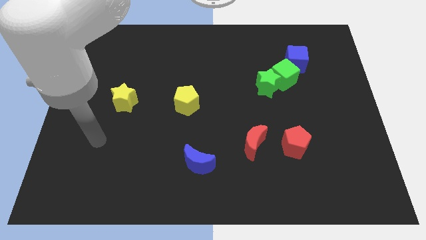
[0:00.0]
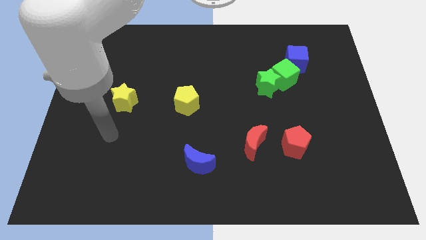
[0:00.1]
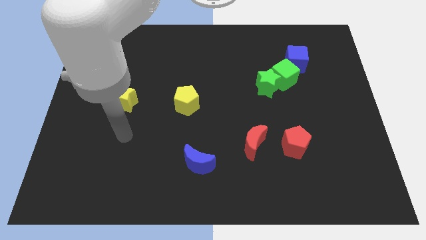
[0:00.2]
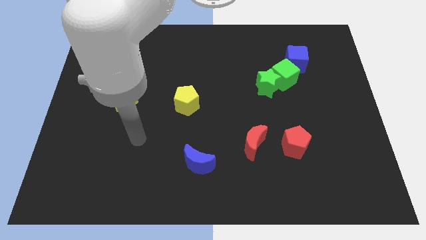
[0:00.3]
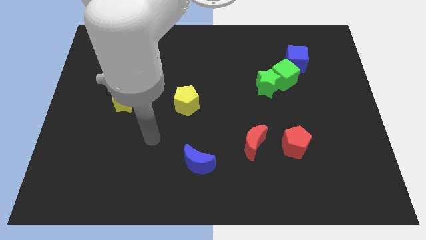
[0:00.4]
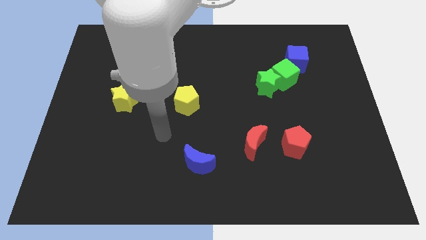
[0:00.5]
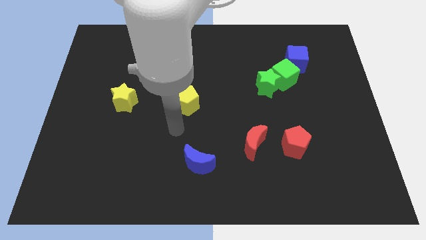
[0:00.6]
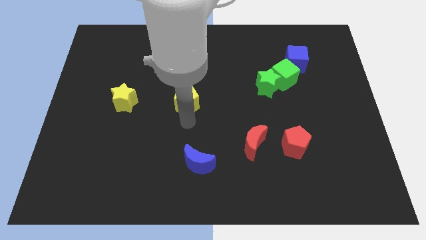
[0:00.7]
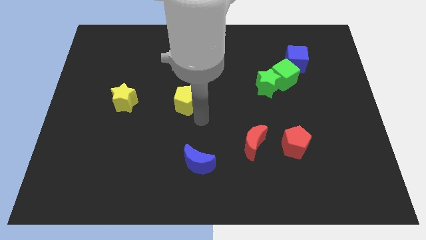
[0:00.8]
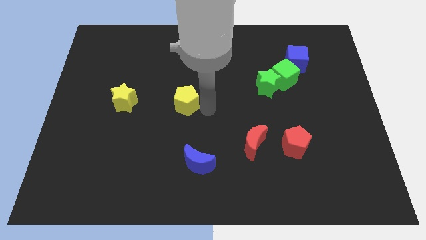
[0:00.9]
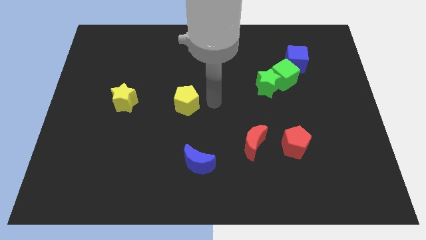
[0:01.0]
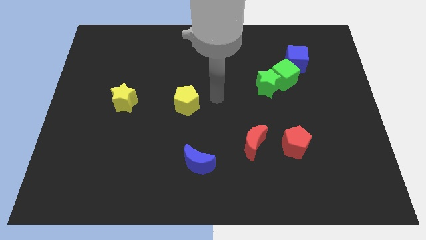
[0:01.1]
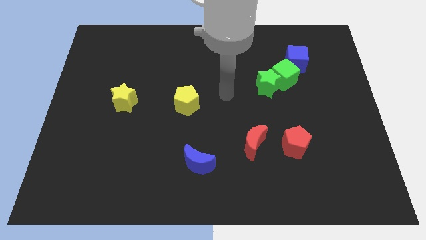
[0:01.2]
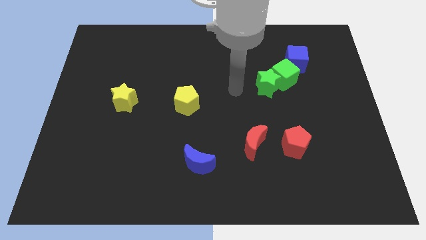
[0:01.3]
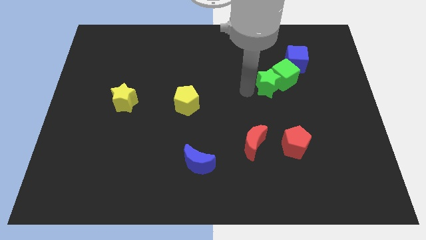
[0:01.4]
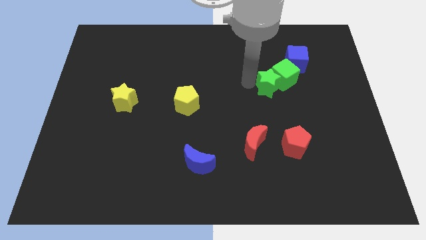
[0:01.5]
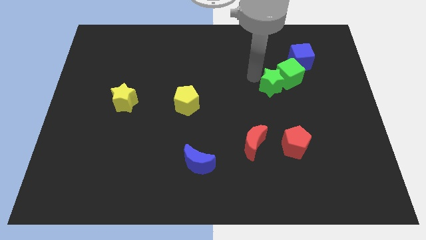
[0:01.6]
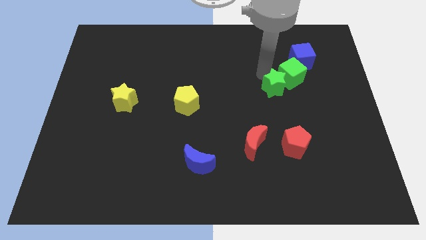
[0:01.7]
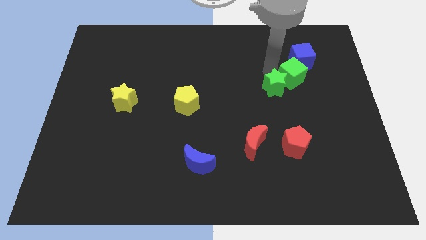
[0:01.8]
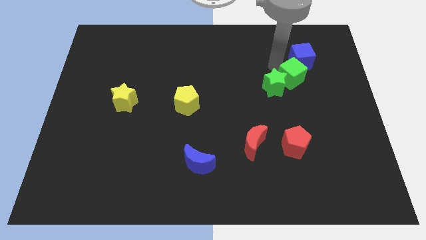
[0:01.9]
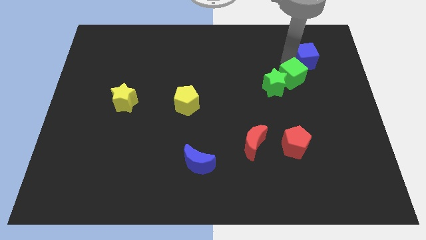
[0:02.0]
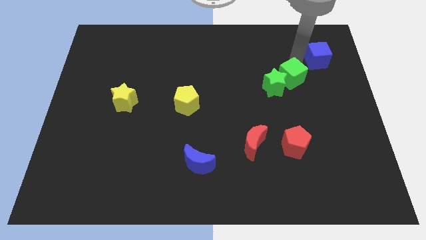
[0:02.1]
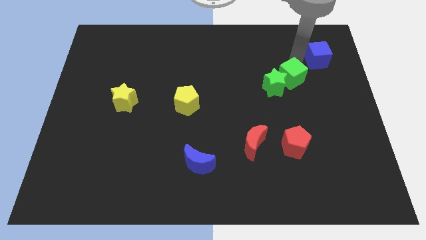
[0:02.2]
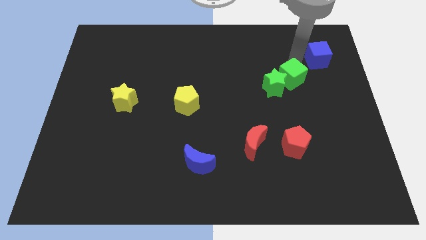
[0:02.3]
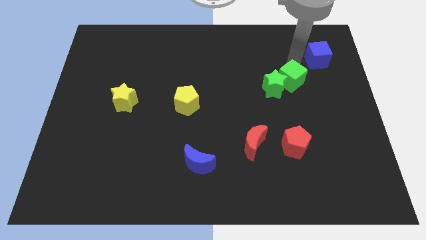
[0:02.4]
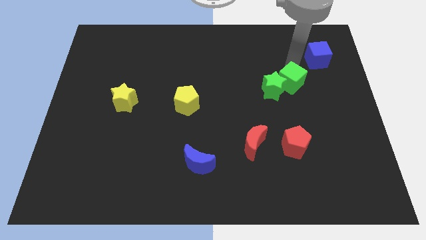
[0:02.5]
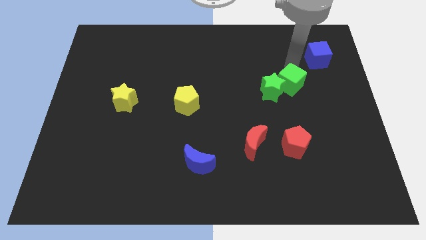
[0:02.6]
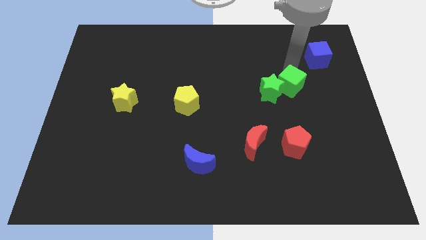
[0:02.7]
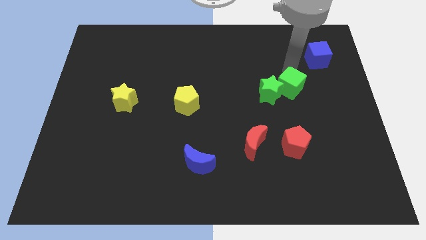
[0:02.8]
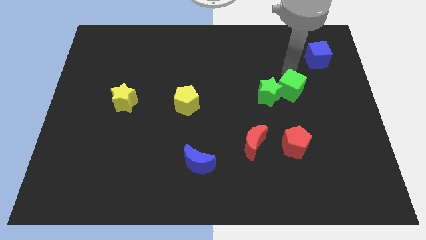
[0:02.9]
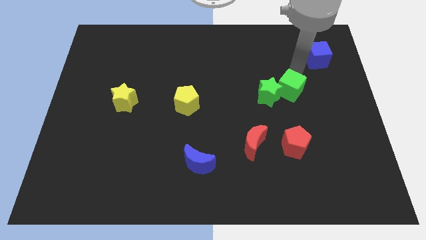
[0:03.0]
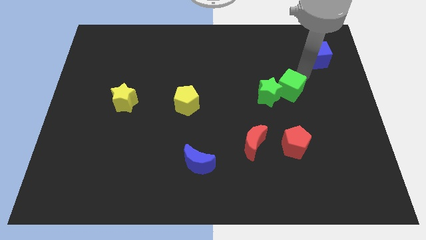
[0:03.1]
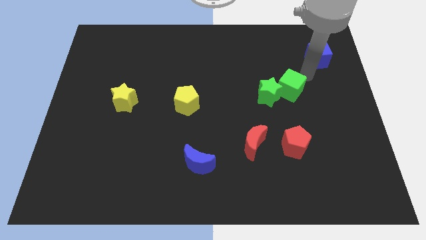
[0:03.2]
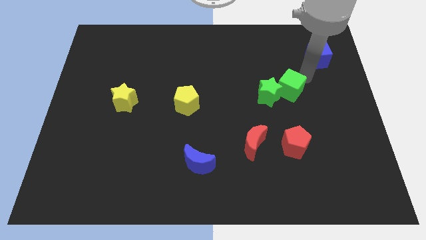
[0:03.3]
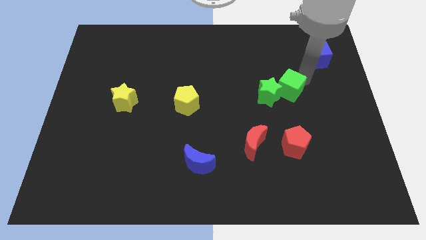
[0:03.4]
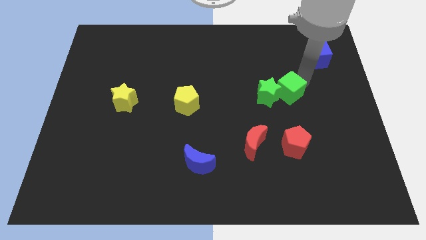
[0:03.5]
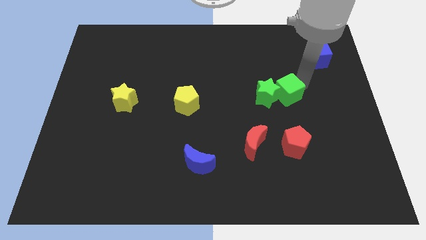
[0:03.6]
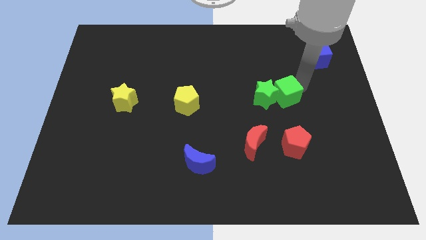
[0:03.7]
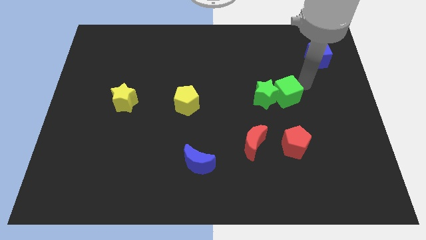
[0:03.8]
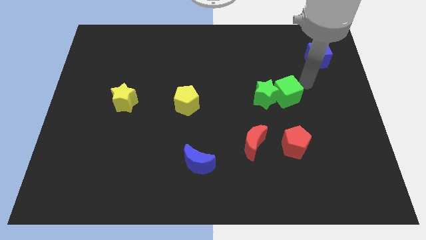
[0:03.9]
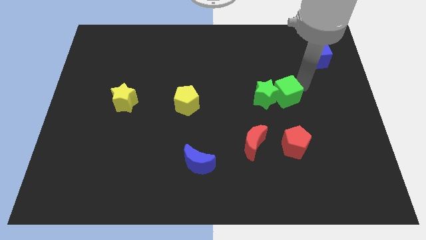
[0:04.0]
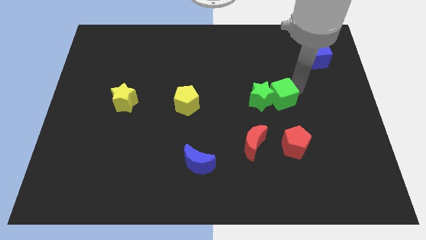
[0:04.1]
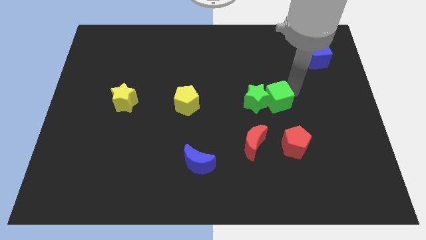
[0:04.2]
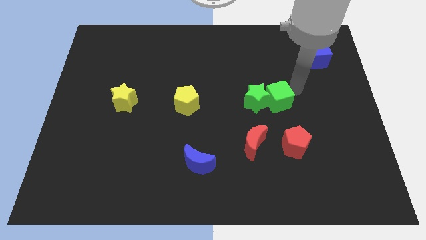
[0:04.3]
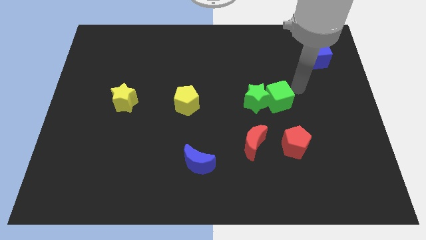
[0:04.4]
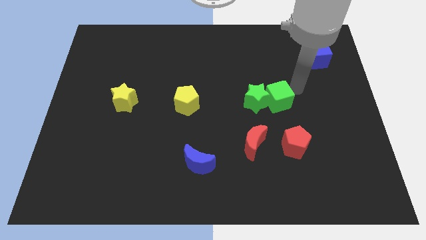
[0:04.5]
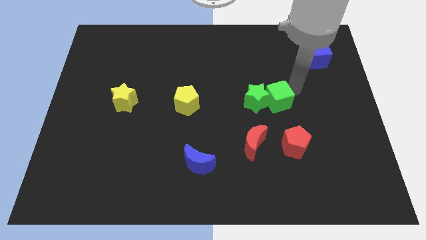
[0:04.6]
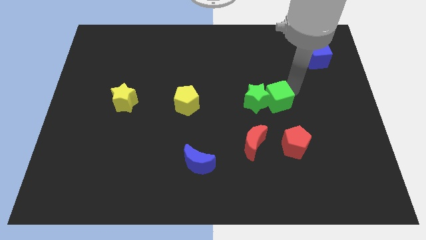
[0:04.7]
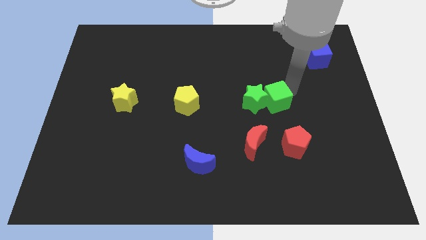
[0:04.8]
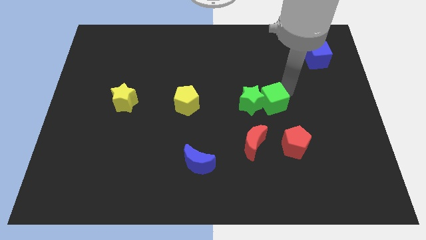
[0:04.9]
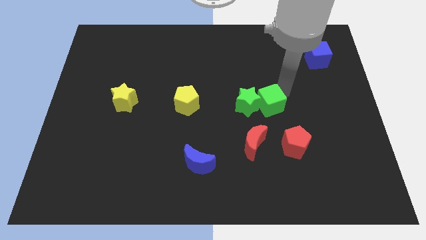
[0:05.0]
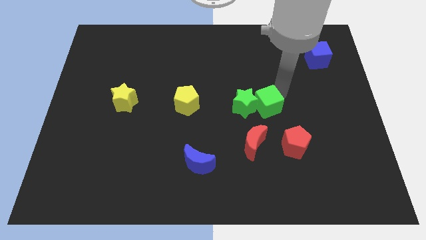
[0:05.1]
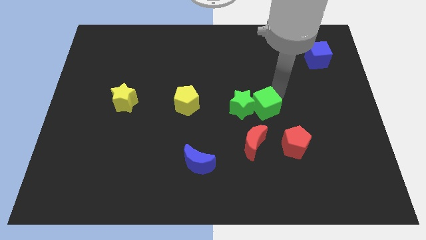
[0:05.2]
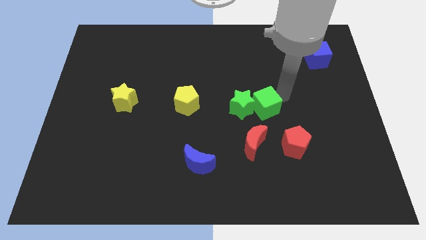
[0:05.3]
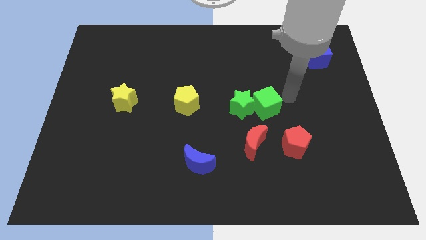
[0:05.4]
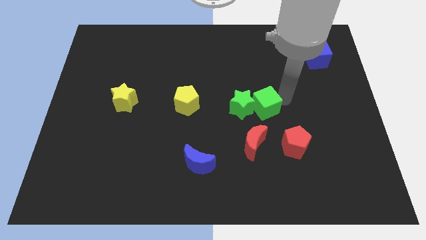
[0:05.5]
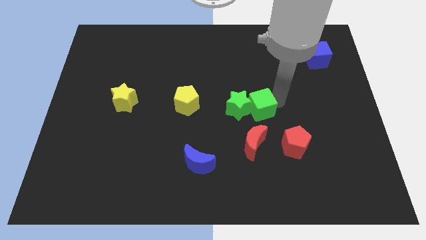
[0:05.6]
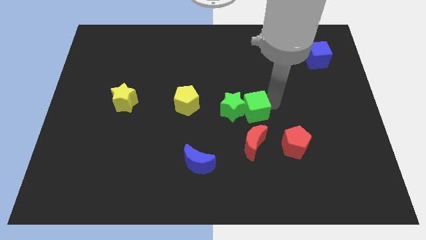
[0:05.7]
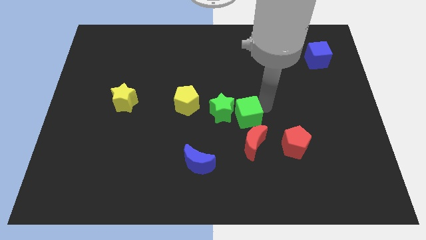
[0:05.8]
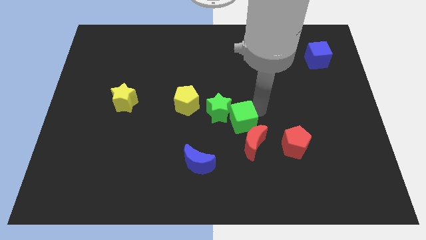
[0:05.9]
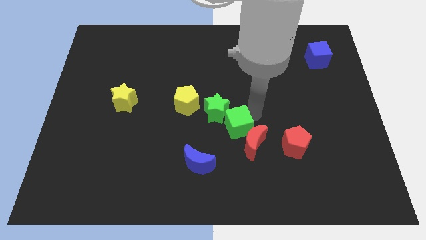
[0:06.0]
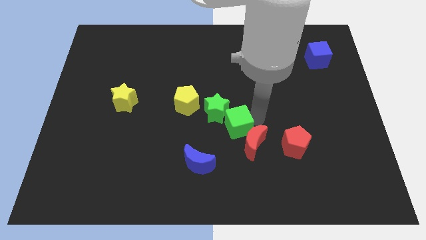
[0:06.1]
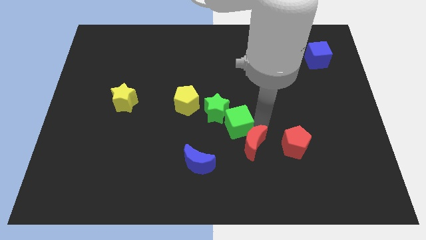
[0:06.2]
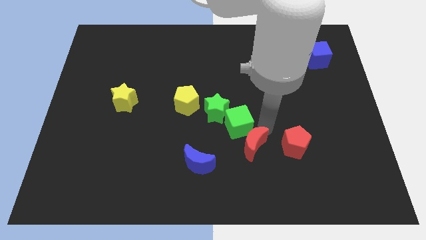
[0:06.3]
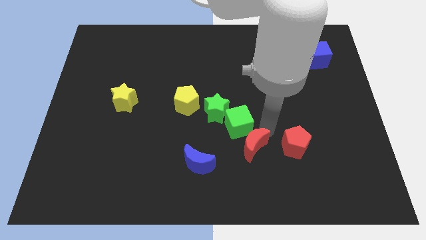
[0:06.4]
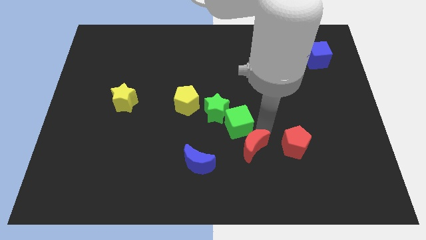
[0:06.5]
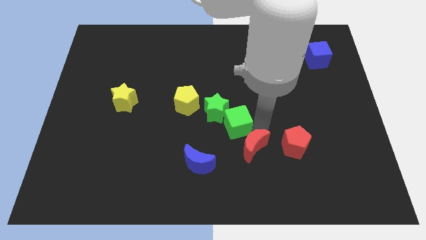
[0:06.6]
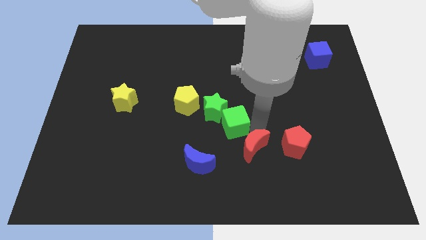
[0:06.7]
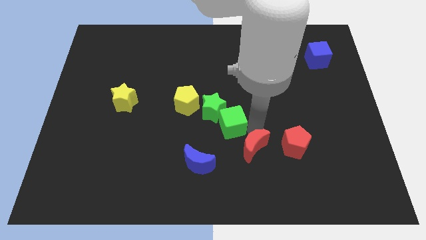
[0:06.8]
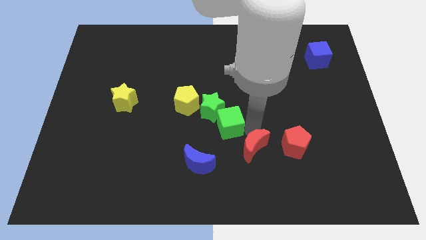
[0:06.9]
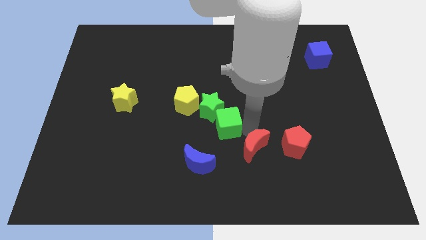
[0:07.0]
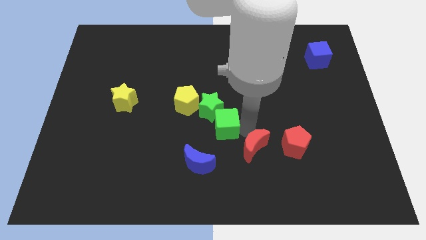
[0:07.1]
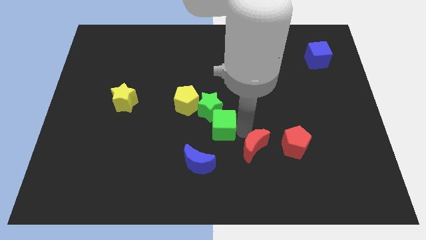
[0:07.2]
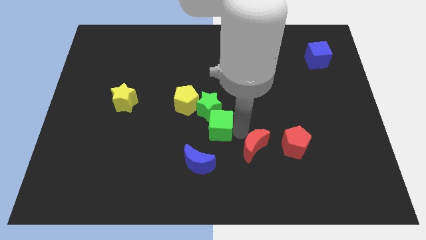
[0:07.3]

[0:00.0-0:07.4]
move the green cube to the top side of the blue moon

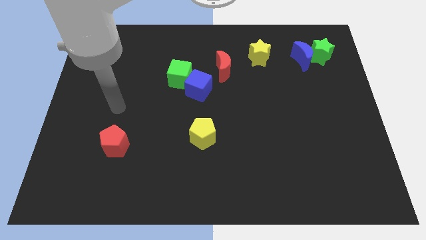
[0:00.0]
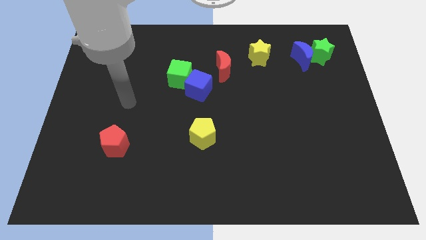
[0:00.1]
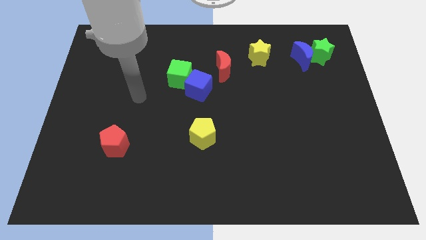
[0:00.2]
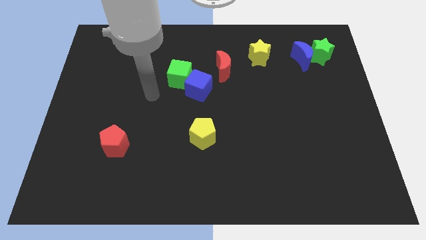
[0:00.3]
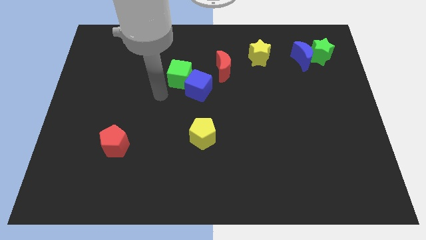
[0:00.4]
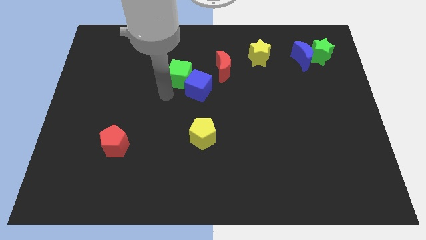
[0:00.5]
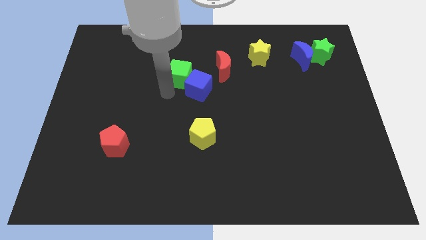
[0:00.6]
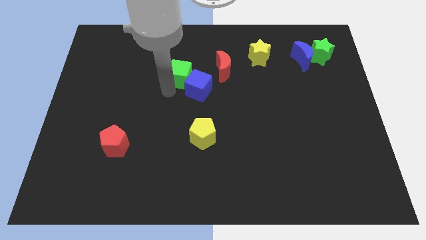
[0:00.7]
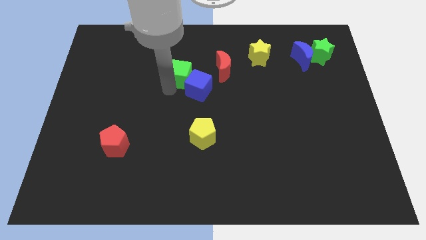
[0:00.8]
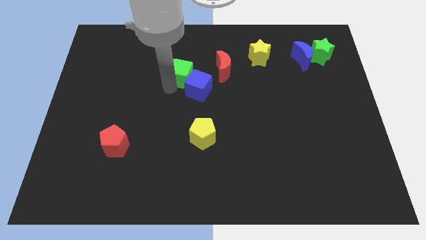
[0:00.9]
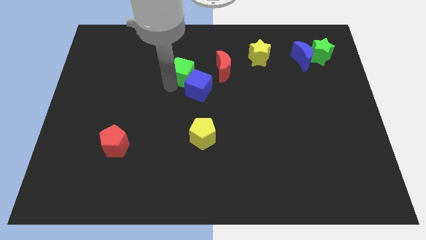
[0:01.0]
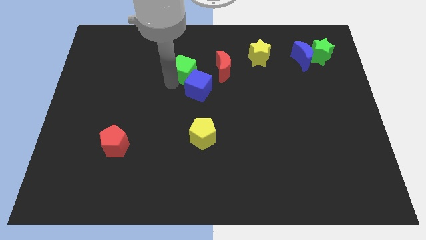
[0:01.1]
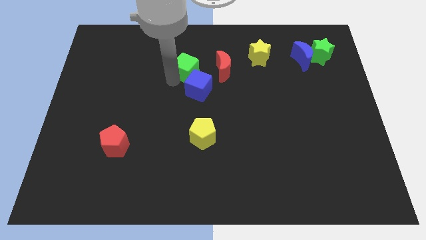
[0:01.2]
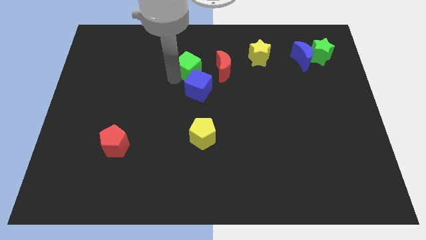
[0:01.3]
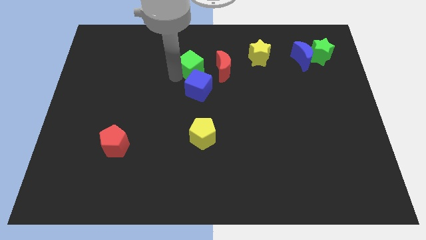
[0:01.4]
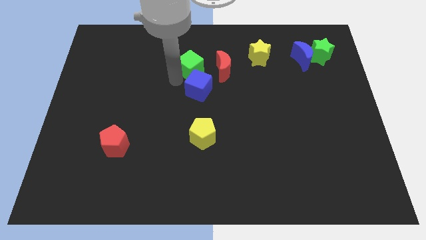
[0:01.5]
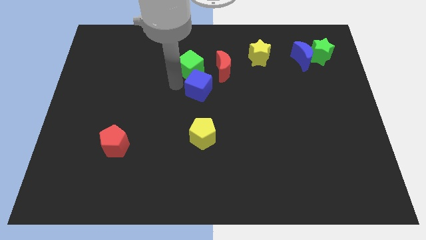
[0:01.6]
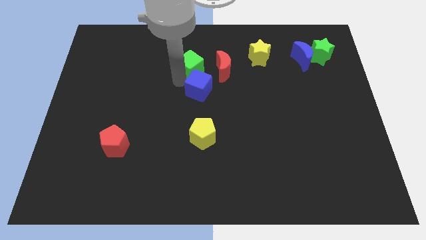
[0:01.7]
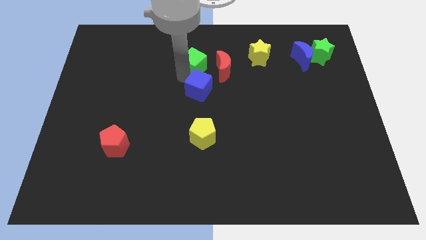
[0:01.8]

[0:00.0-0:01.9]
slide the green cube to the top left of the red moon
